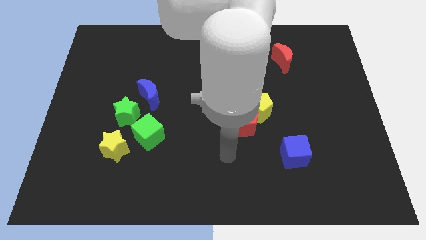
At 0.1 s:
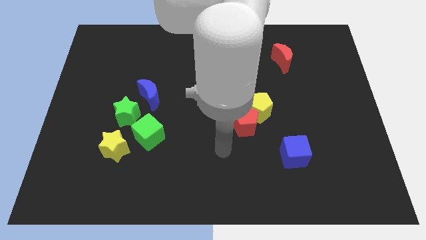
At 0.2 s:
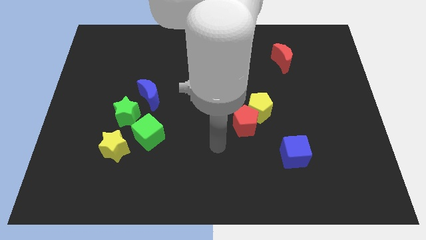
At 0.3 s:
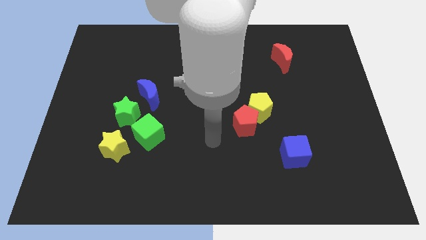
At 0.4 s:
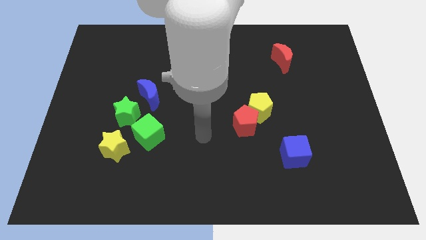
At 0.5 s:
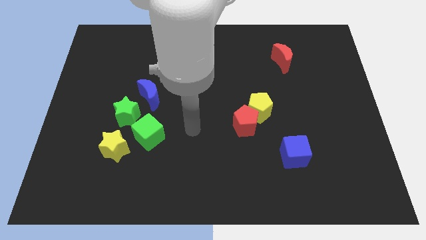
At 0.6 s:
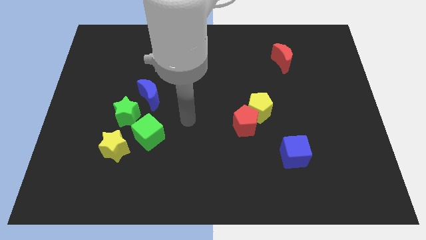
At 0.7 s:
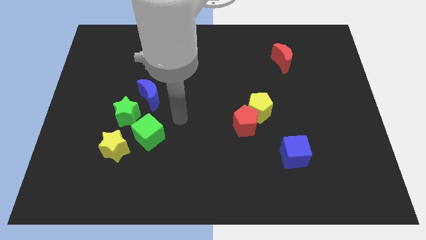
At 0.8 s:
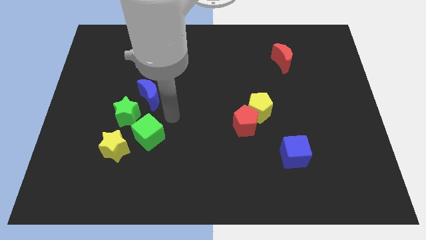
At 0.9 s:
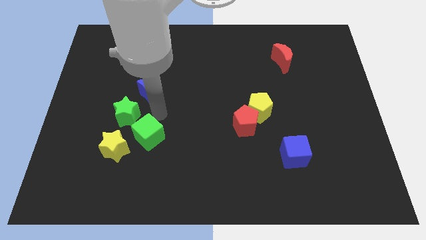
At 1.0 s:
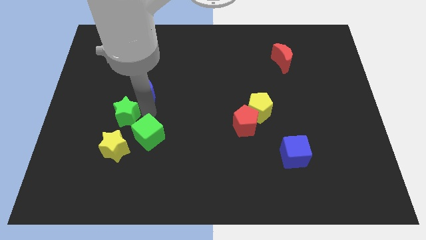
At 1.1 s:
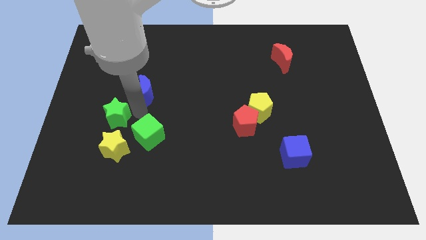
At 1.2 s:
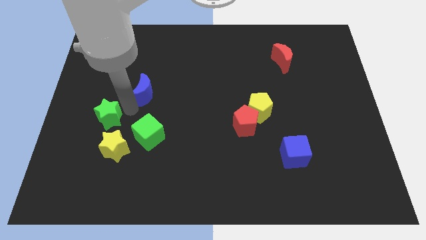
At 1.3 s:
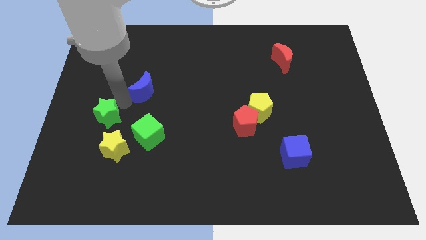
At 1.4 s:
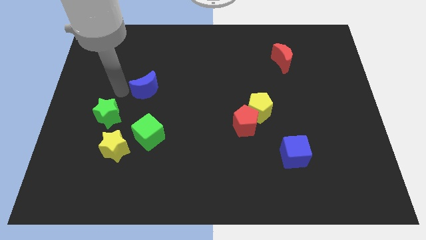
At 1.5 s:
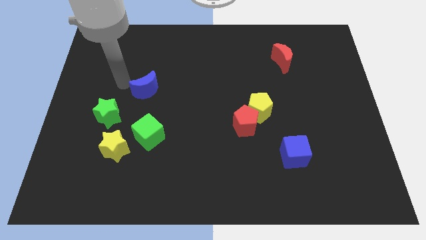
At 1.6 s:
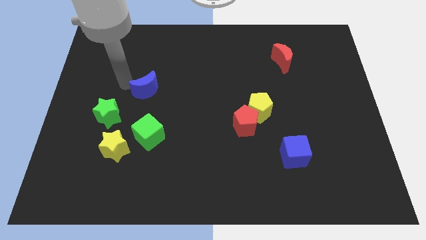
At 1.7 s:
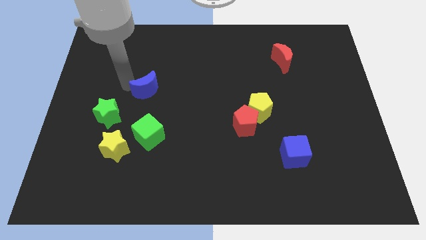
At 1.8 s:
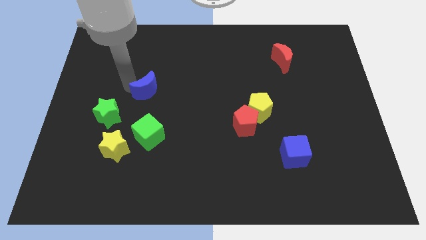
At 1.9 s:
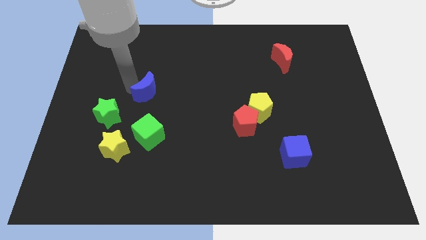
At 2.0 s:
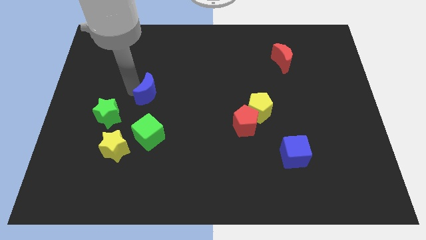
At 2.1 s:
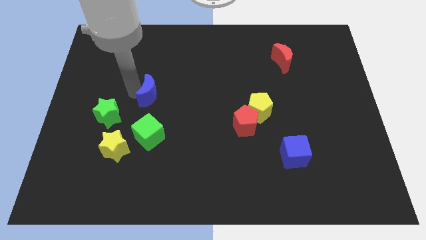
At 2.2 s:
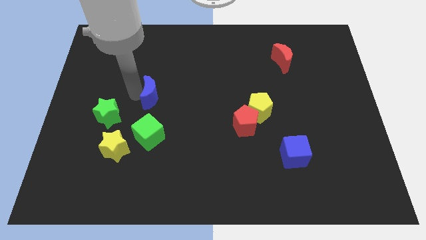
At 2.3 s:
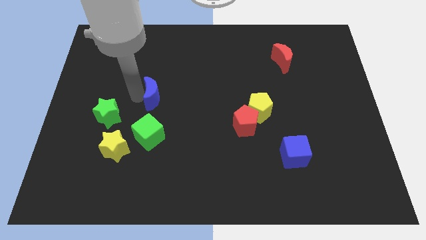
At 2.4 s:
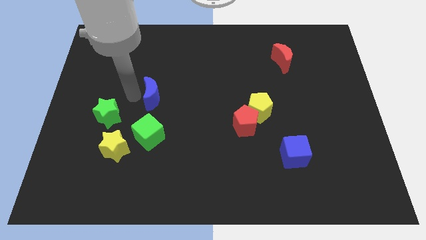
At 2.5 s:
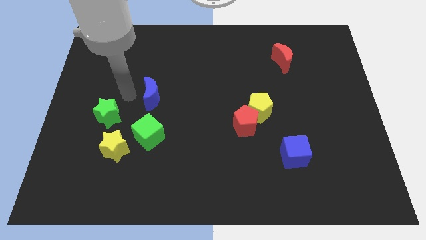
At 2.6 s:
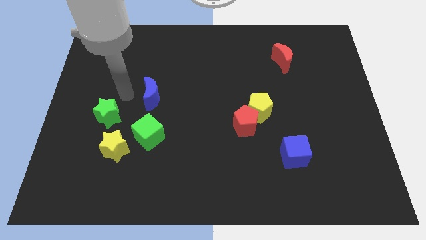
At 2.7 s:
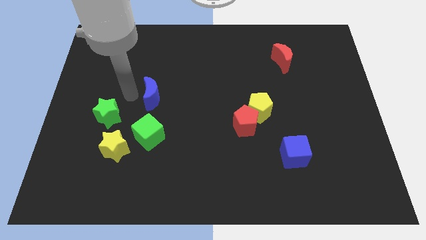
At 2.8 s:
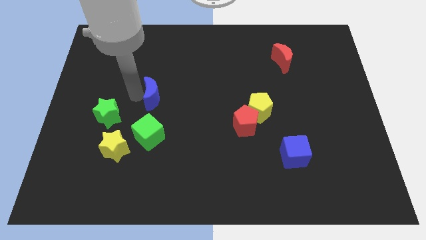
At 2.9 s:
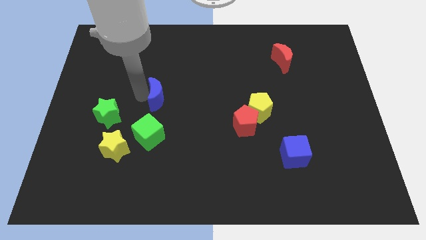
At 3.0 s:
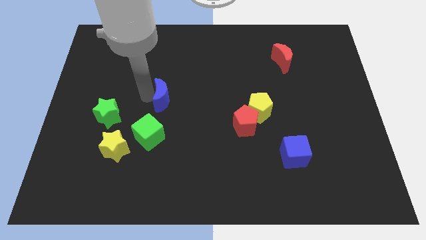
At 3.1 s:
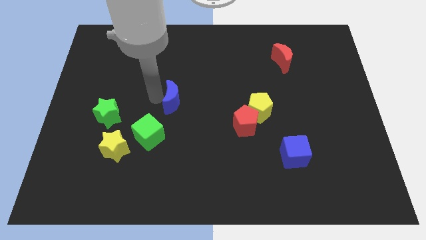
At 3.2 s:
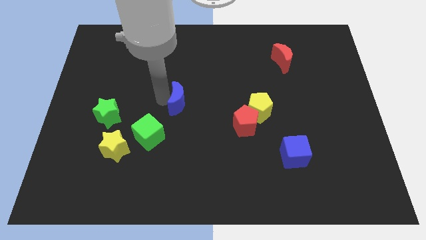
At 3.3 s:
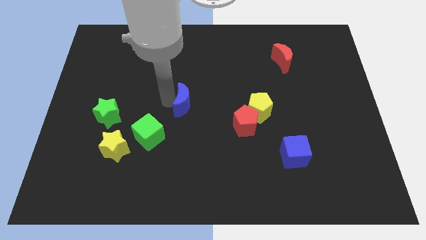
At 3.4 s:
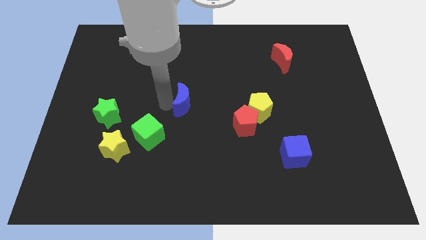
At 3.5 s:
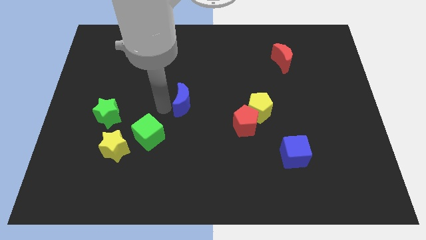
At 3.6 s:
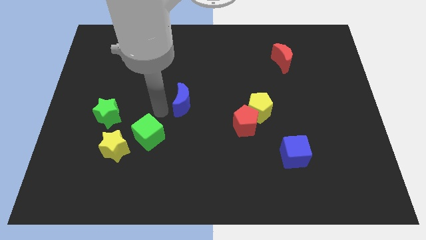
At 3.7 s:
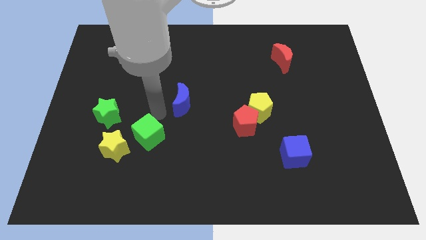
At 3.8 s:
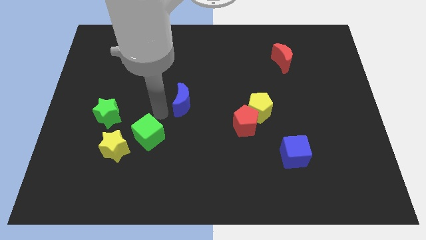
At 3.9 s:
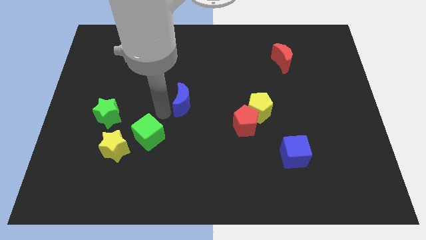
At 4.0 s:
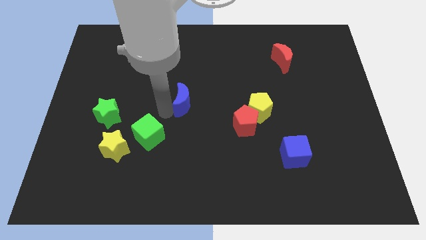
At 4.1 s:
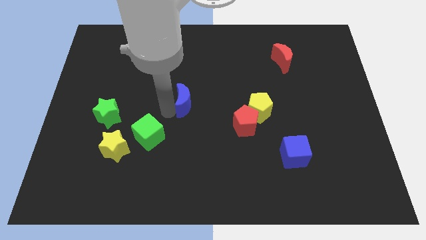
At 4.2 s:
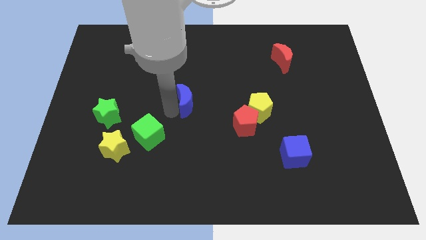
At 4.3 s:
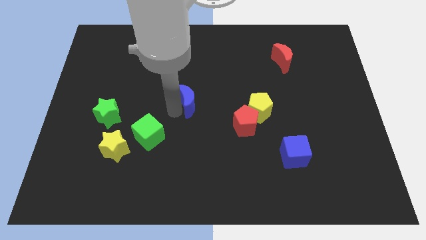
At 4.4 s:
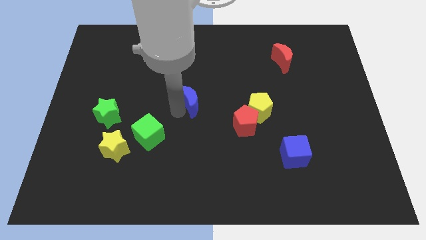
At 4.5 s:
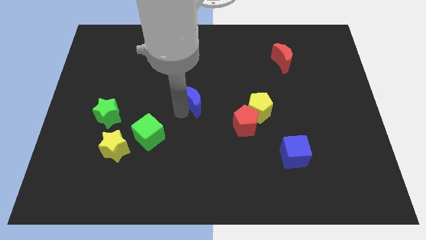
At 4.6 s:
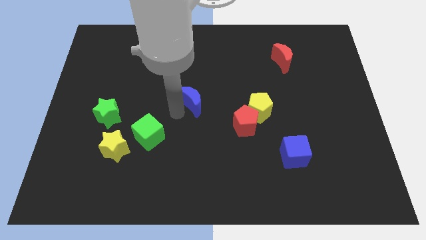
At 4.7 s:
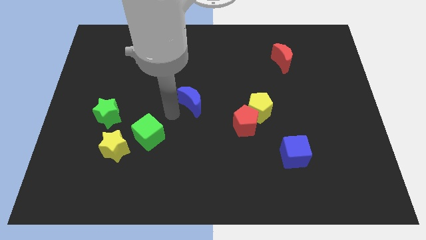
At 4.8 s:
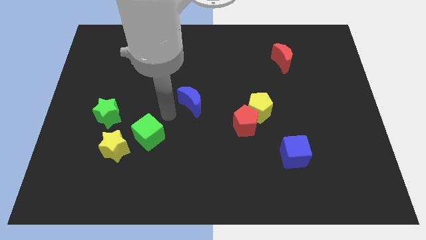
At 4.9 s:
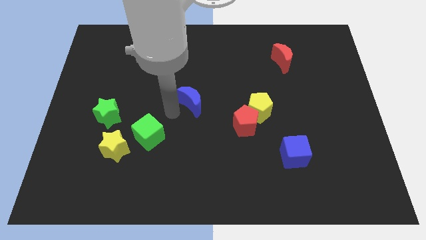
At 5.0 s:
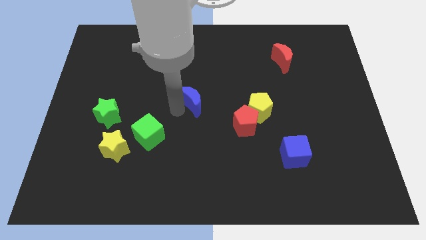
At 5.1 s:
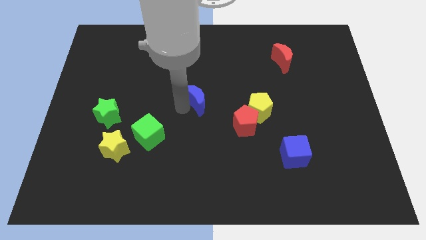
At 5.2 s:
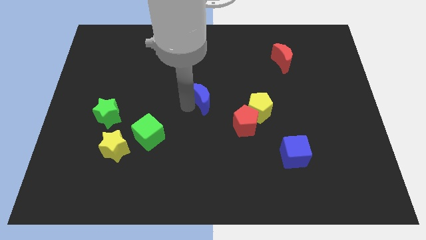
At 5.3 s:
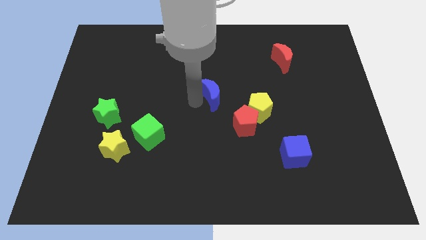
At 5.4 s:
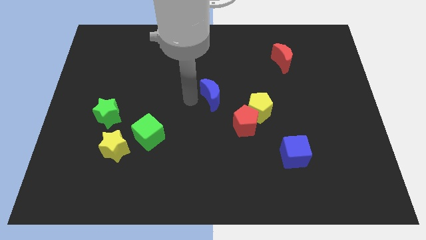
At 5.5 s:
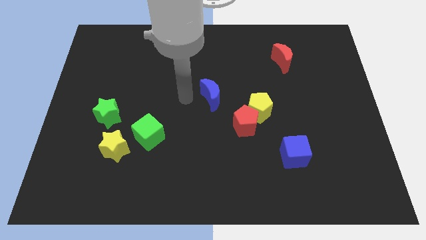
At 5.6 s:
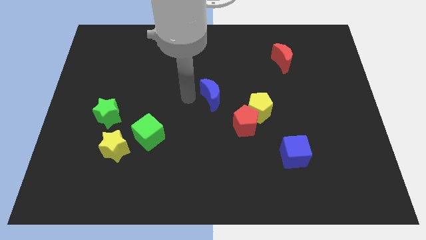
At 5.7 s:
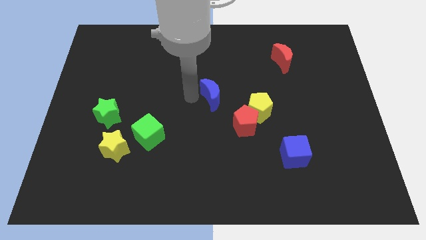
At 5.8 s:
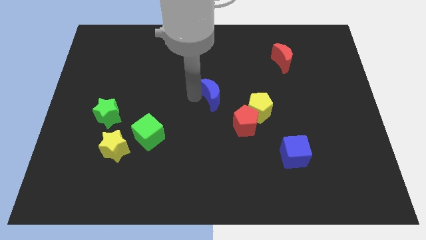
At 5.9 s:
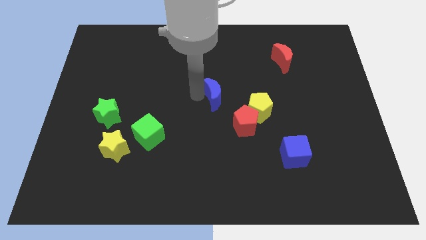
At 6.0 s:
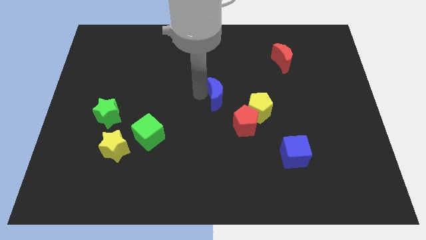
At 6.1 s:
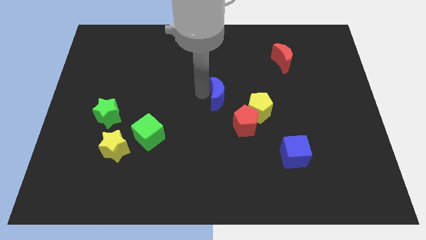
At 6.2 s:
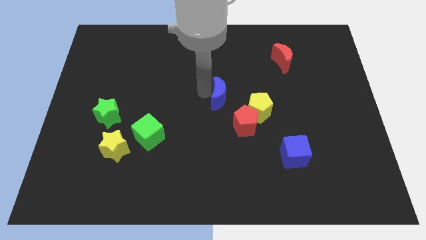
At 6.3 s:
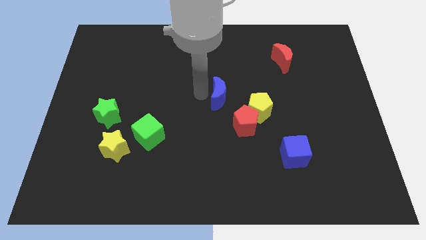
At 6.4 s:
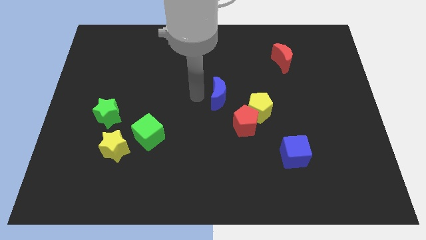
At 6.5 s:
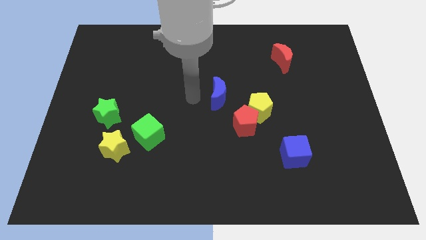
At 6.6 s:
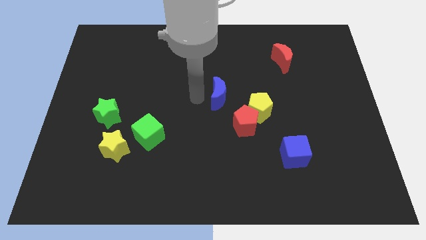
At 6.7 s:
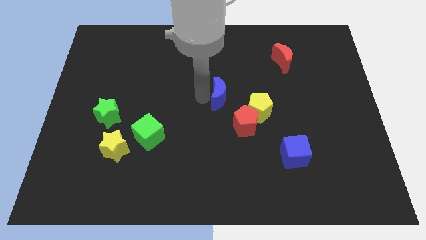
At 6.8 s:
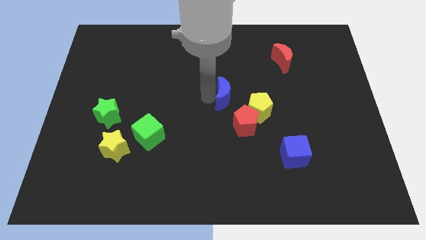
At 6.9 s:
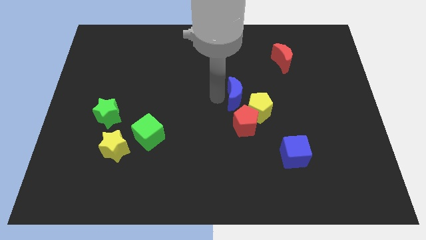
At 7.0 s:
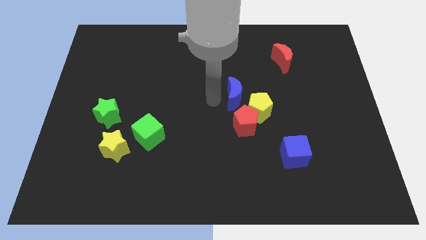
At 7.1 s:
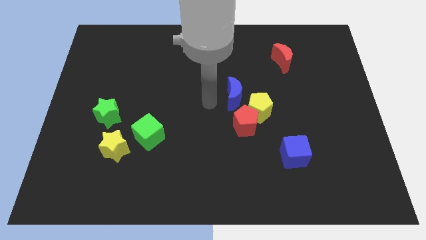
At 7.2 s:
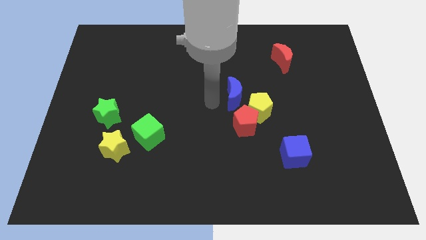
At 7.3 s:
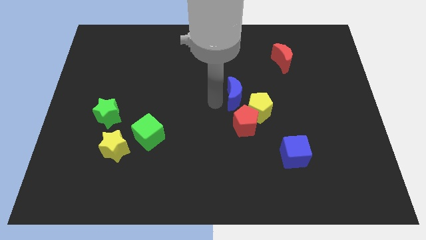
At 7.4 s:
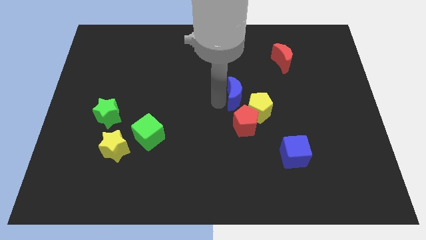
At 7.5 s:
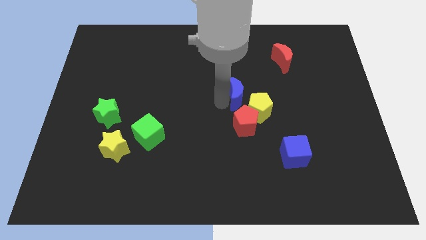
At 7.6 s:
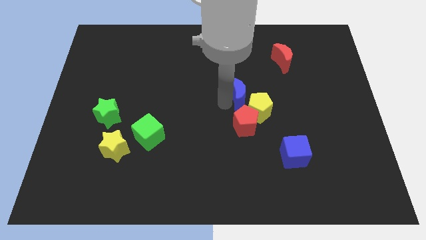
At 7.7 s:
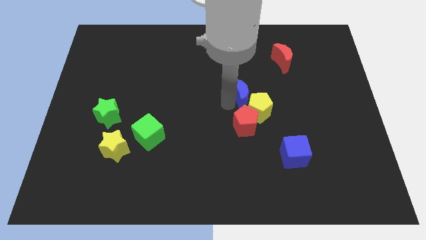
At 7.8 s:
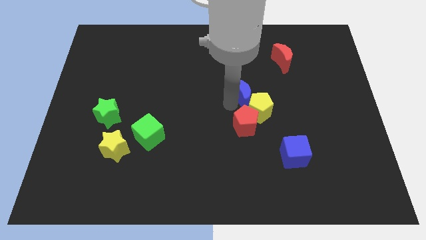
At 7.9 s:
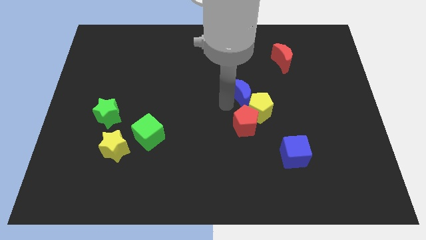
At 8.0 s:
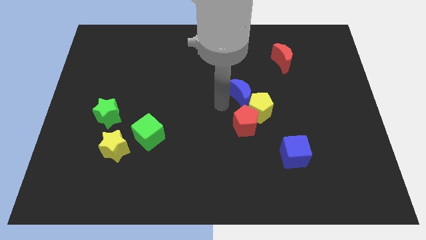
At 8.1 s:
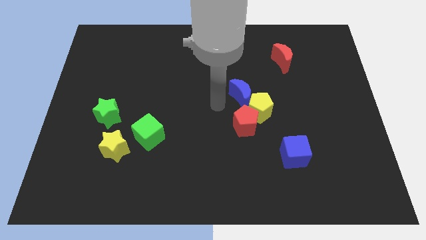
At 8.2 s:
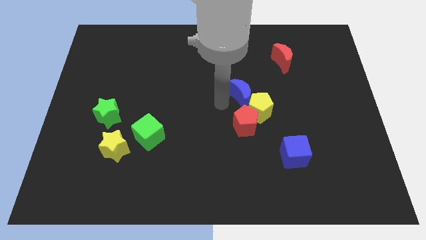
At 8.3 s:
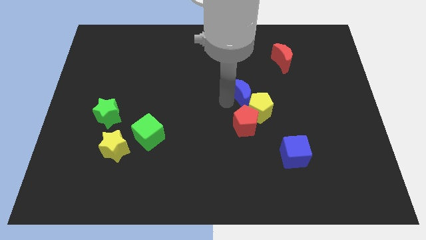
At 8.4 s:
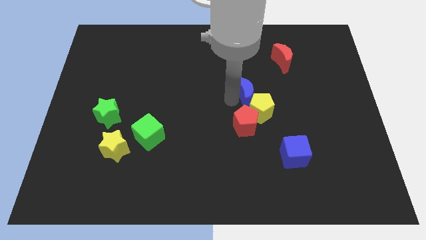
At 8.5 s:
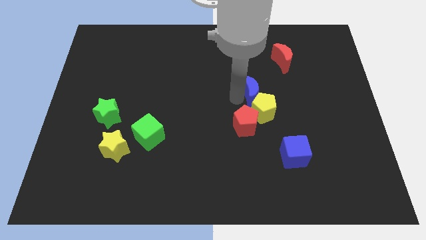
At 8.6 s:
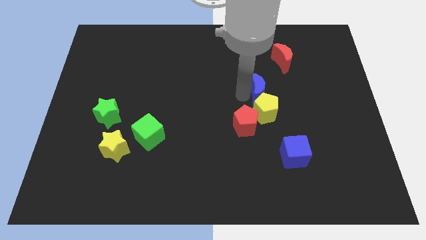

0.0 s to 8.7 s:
slide the blue moon to the top right side of the yellow pentagon
